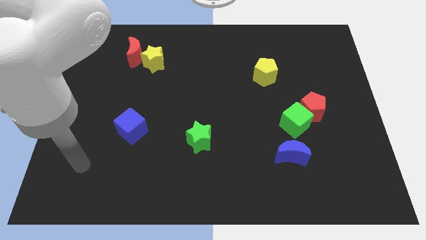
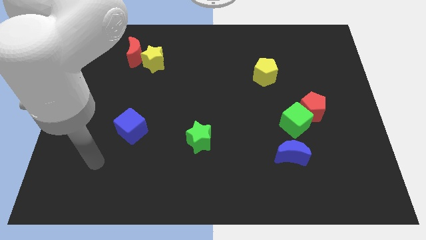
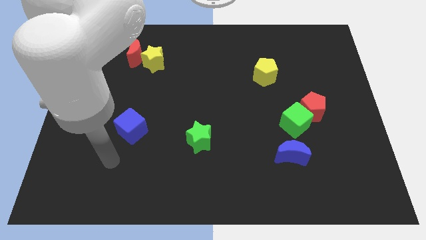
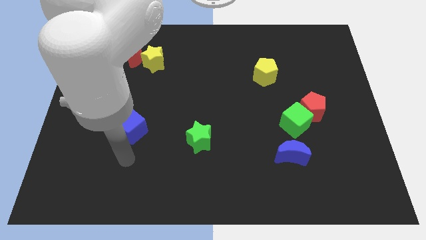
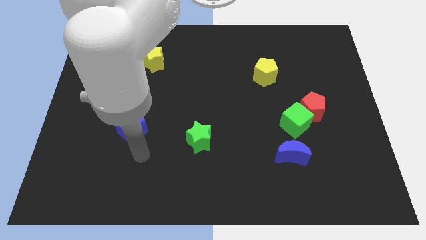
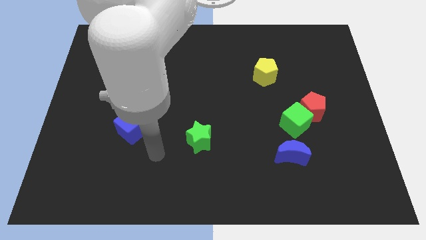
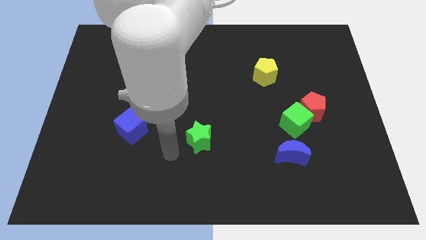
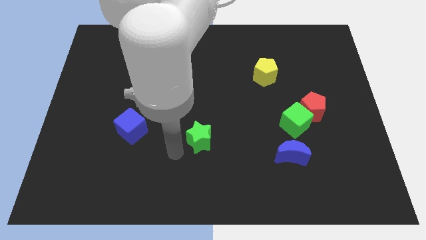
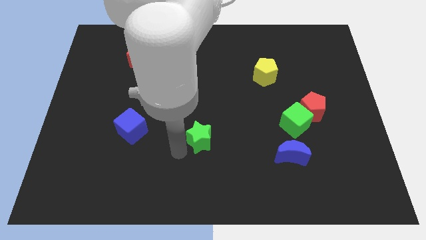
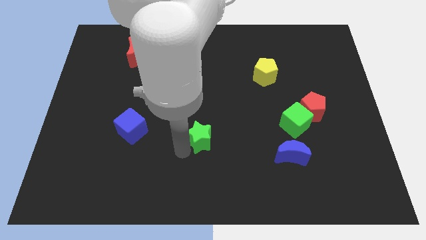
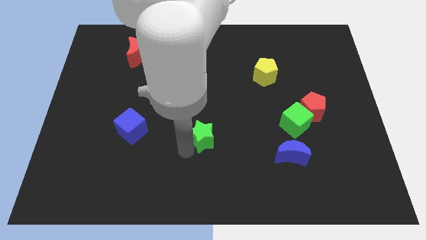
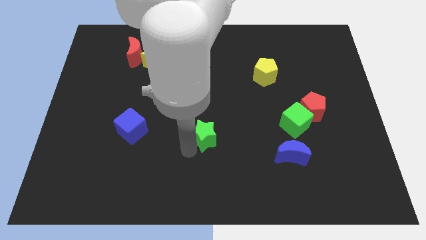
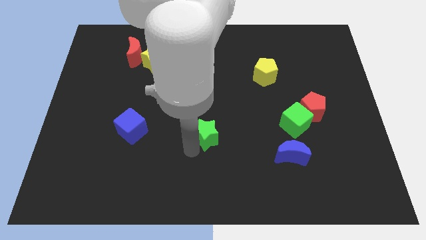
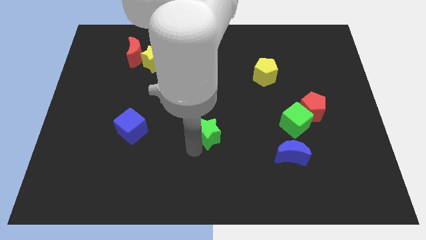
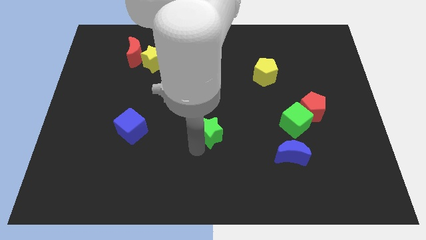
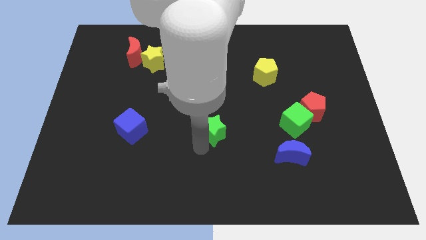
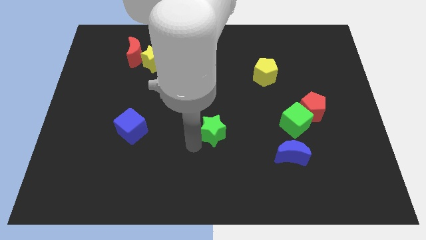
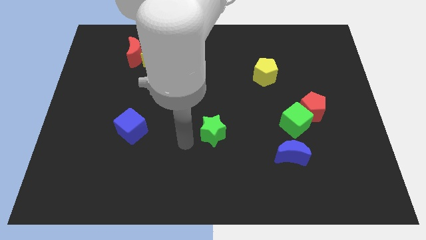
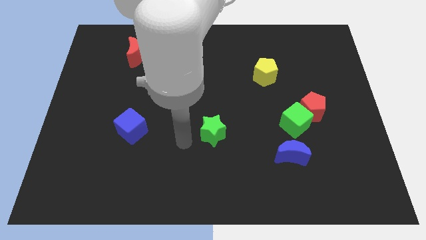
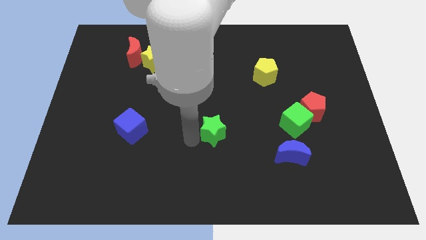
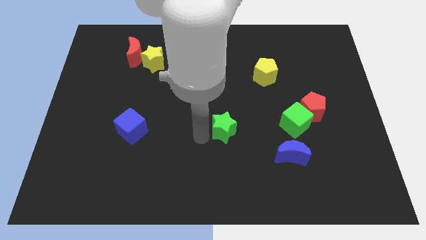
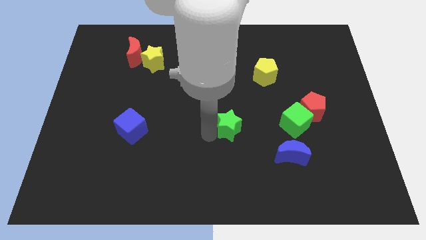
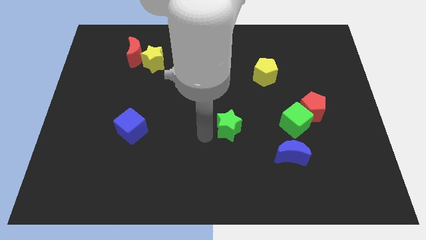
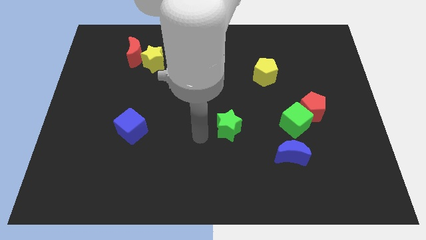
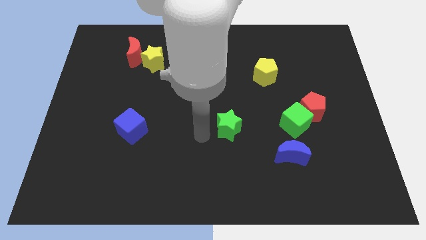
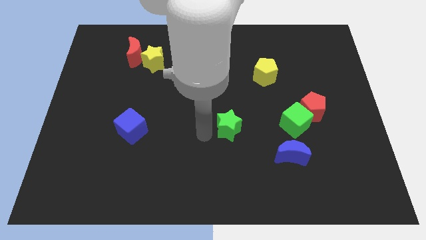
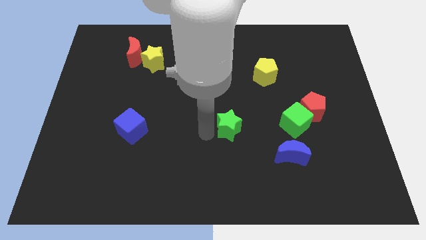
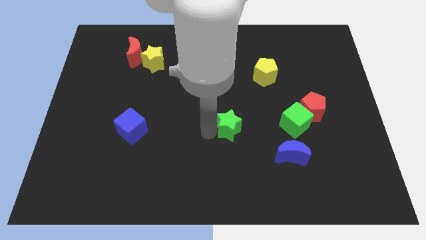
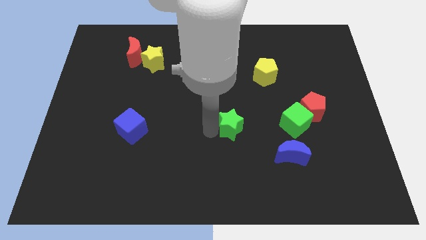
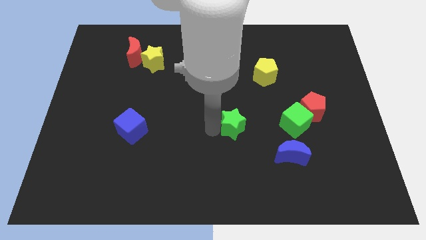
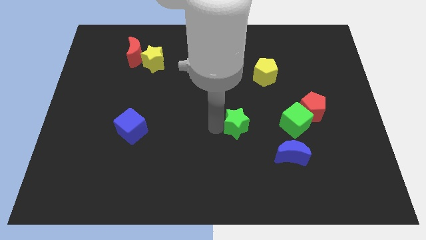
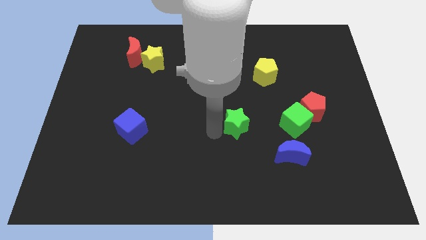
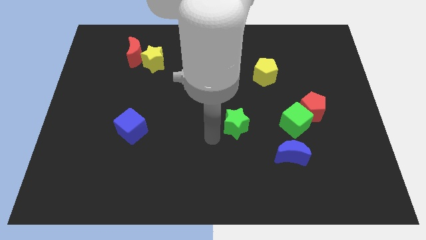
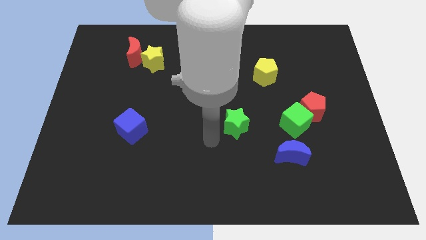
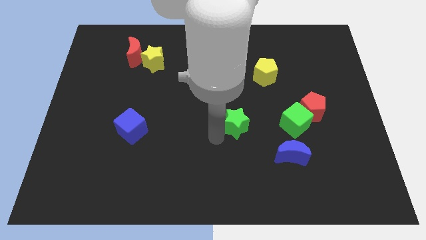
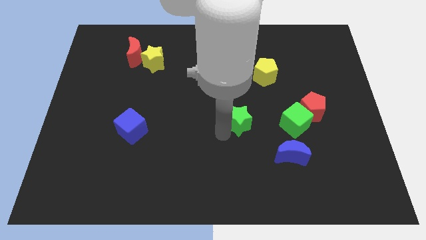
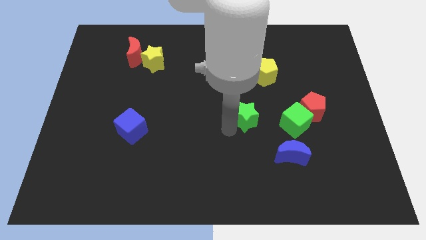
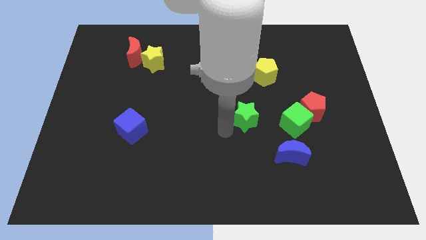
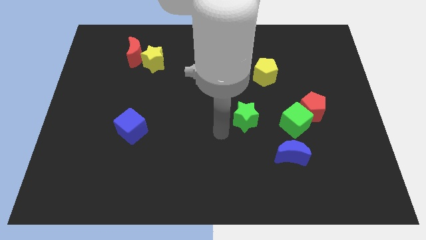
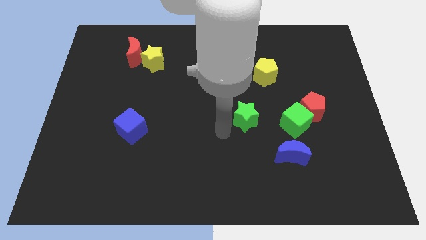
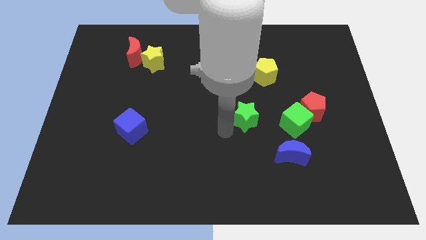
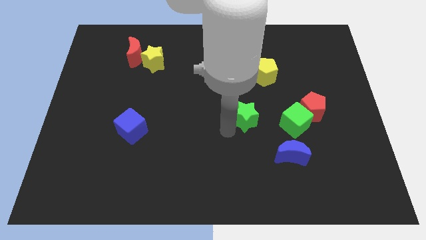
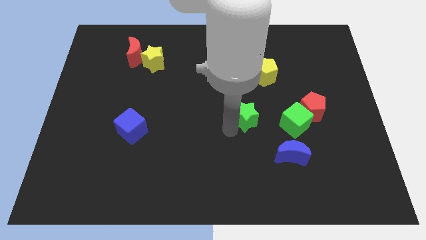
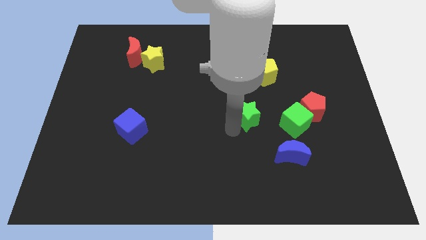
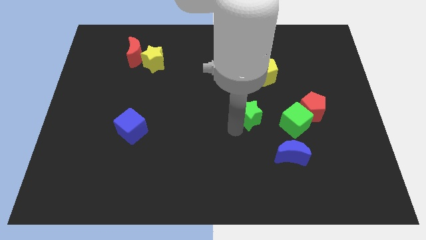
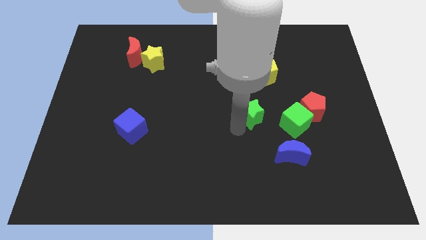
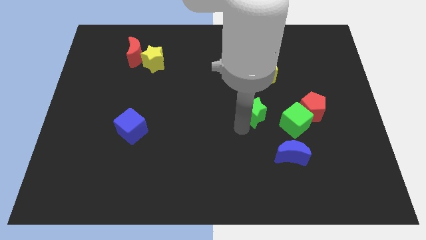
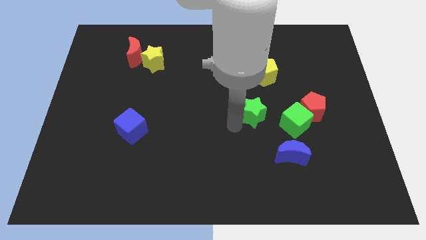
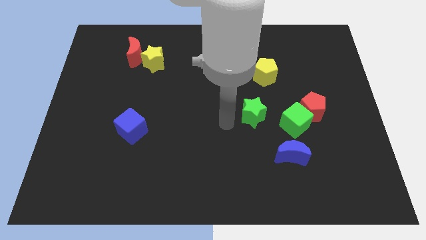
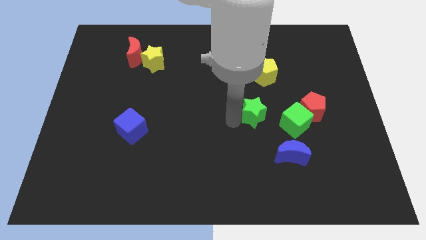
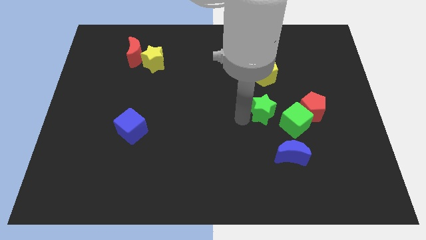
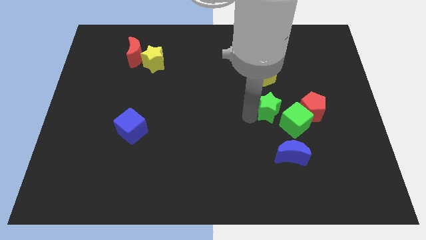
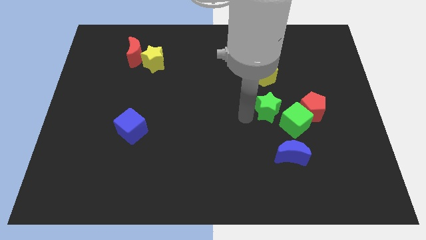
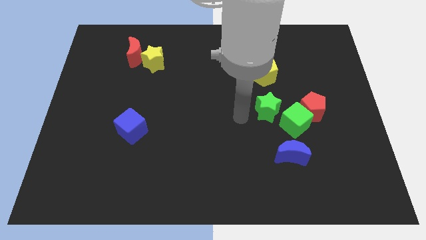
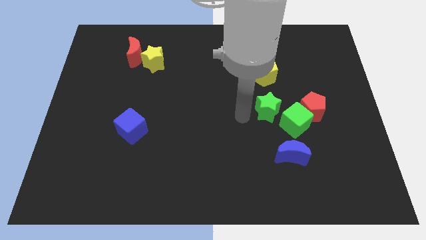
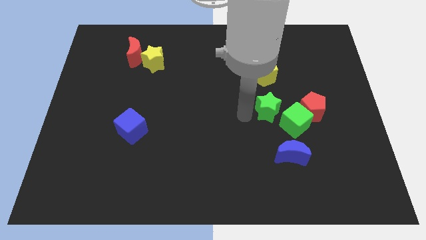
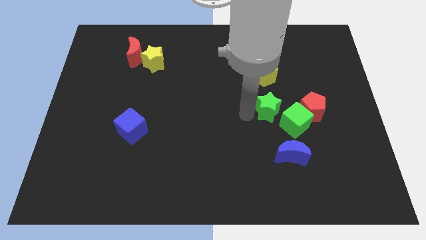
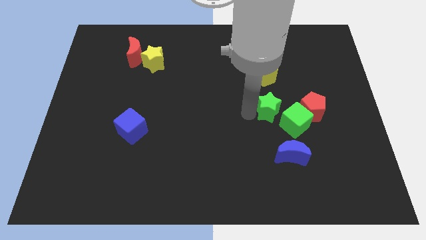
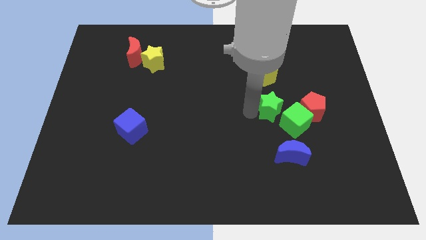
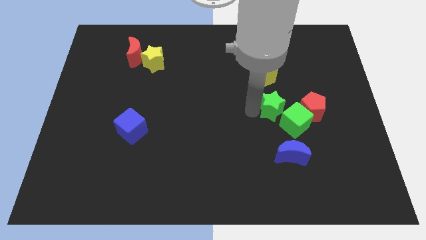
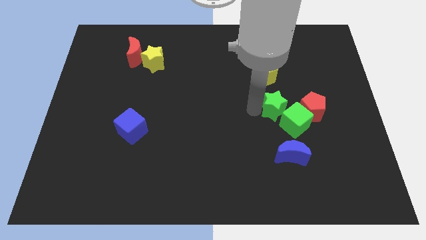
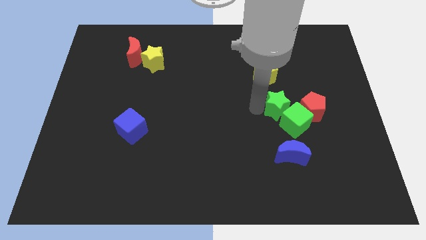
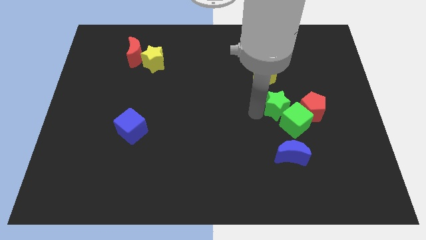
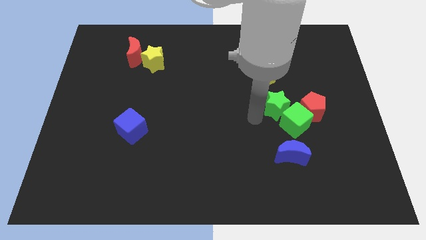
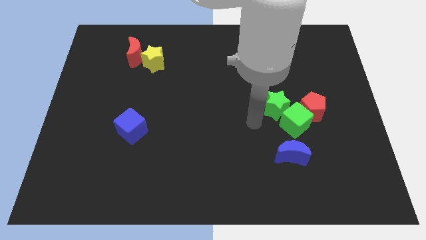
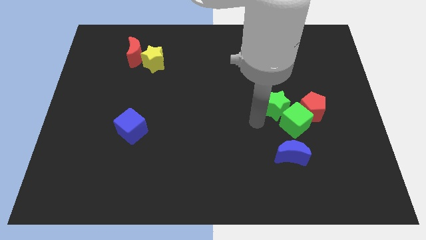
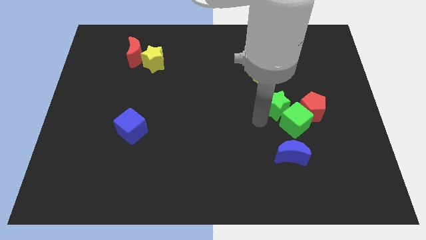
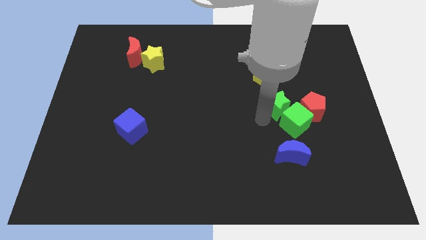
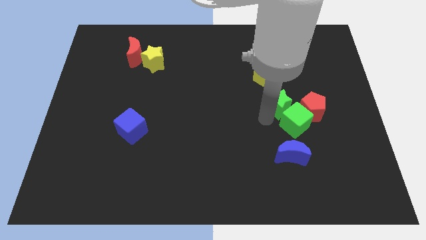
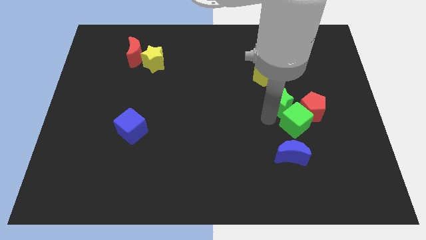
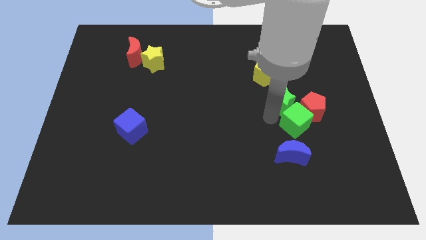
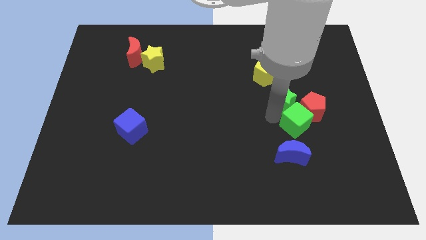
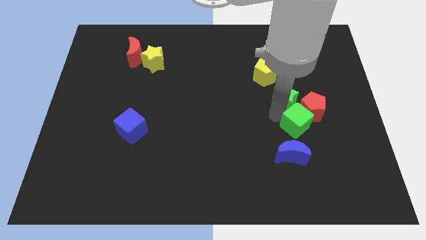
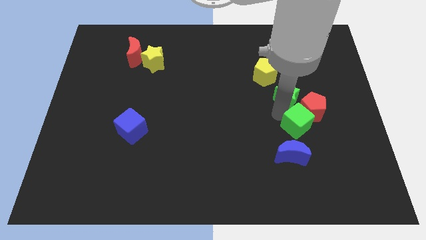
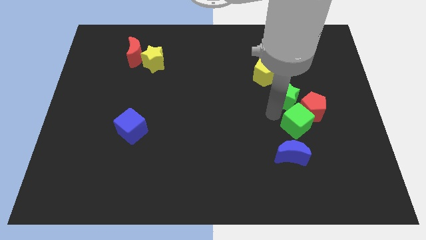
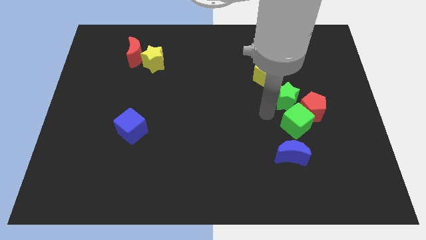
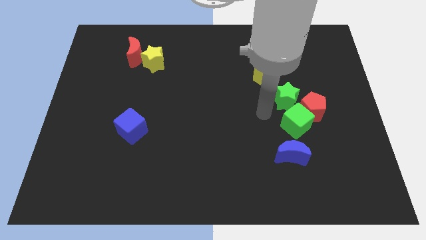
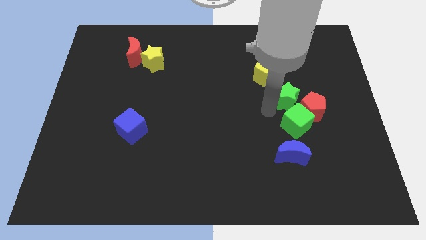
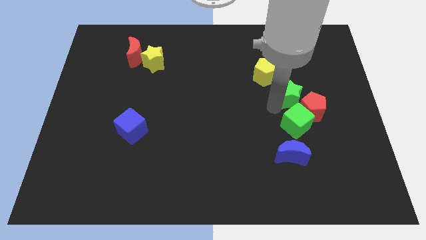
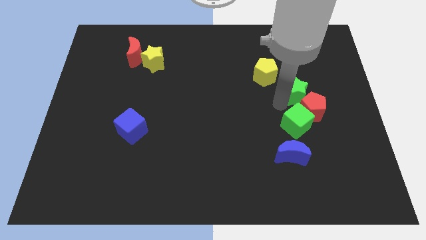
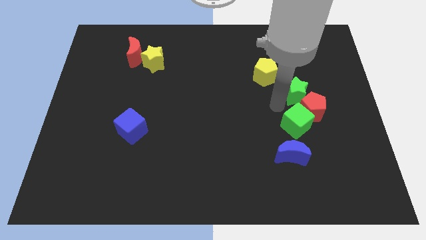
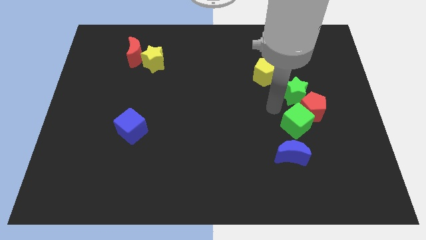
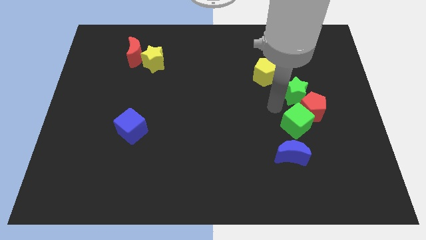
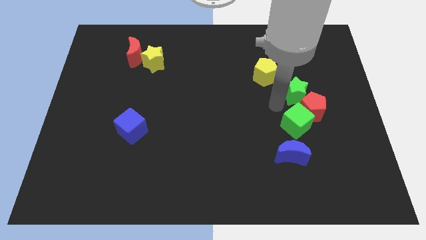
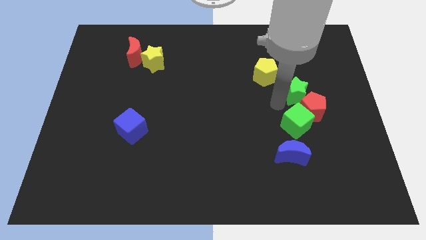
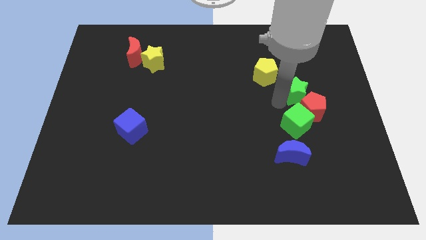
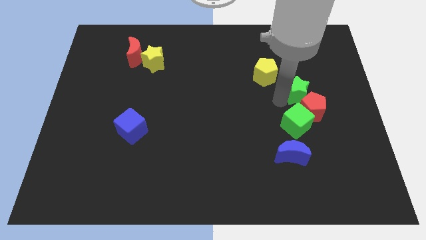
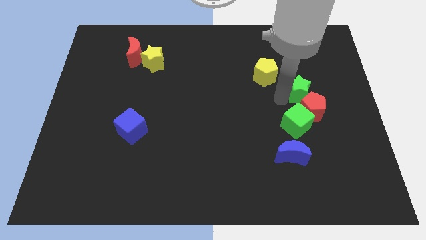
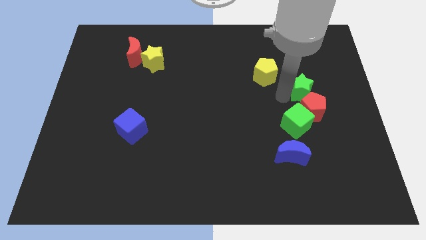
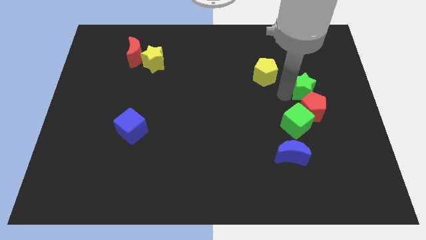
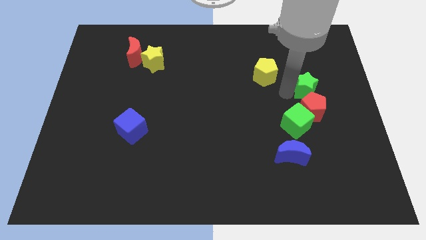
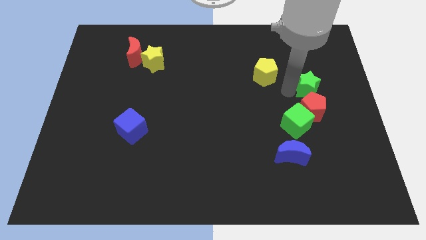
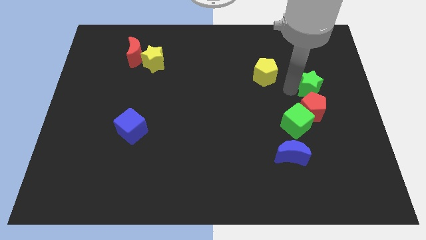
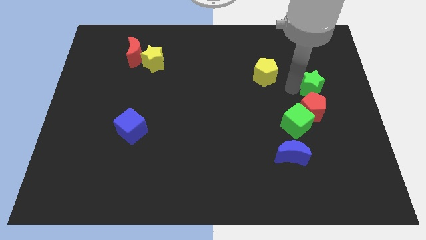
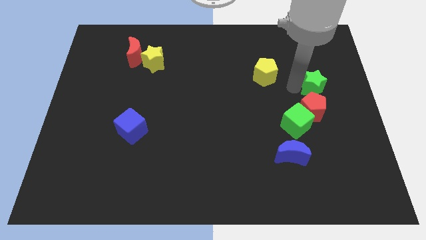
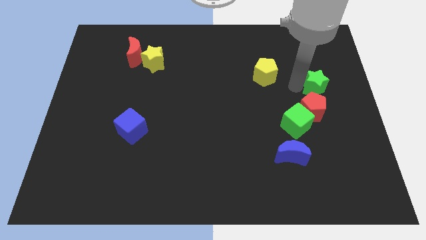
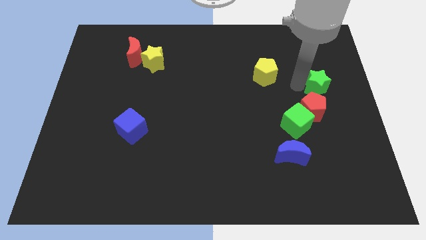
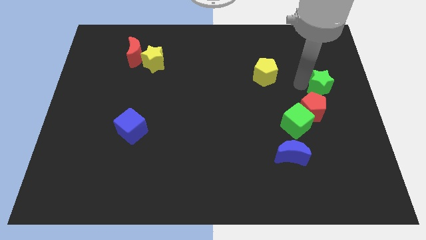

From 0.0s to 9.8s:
put the green star to the right side
